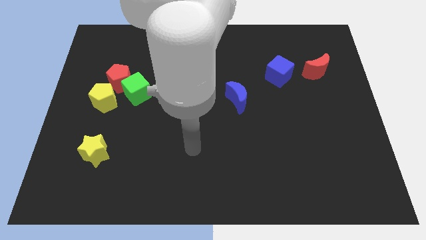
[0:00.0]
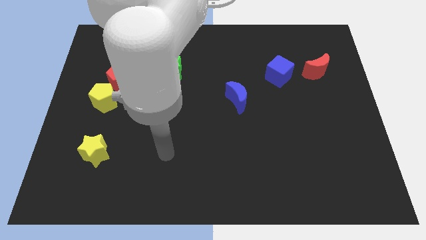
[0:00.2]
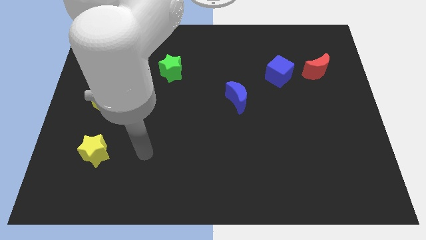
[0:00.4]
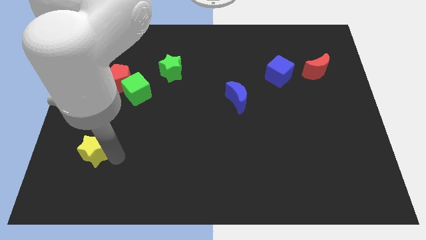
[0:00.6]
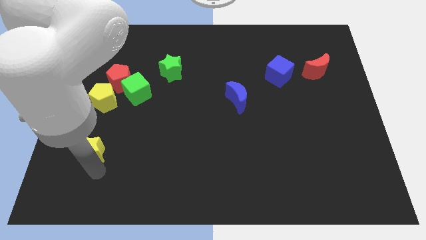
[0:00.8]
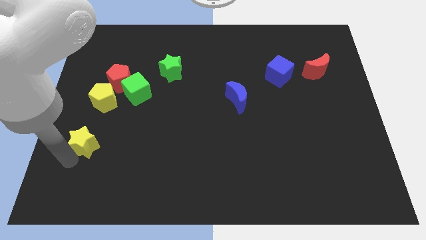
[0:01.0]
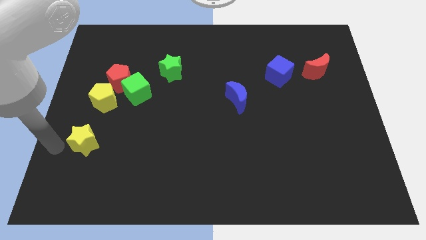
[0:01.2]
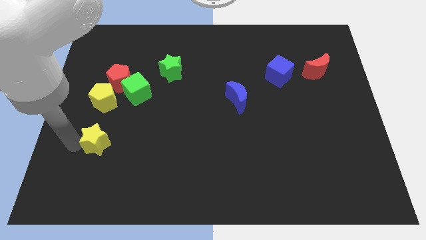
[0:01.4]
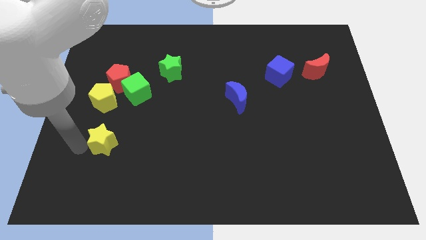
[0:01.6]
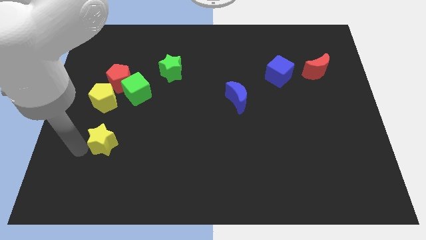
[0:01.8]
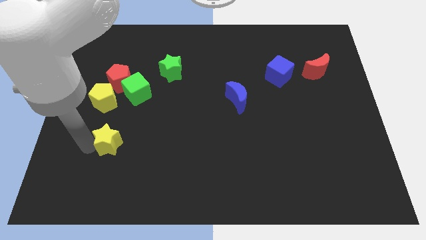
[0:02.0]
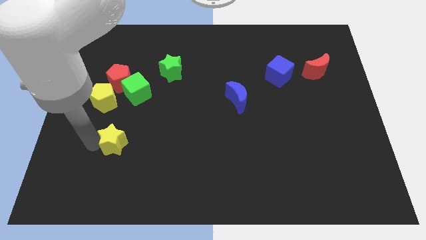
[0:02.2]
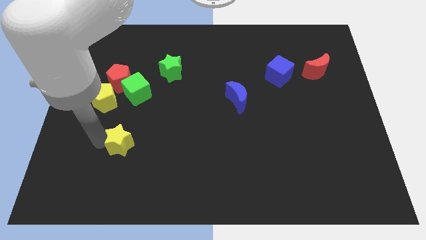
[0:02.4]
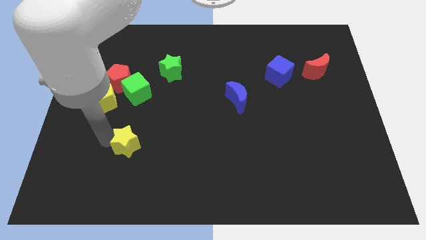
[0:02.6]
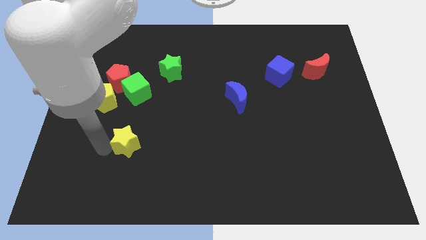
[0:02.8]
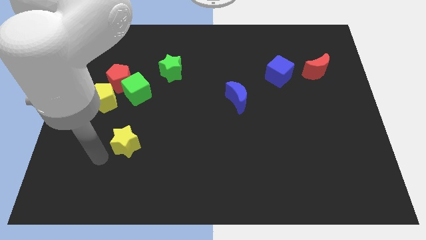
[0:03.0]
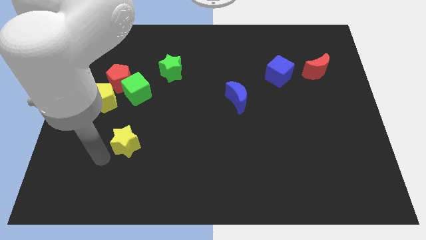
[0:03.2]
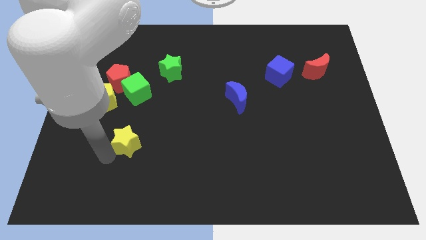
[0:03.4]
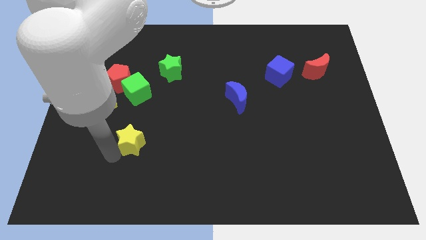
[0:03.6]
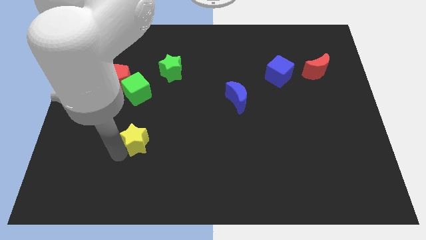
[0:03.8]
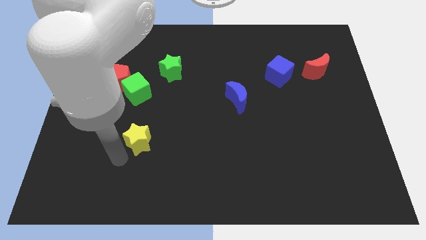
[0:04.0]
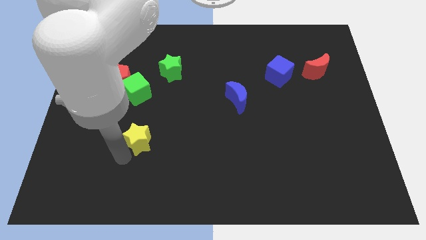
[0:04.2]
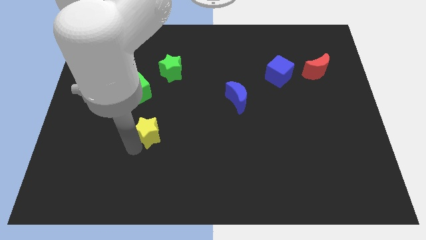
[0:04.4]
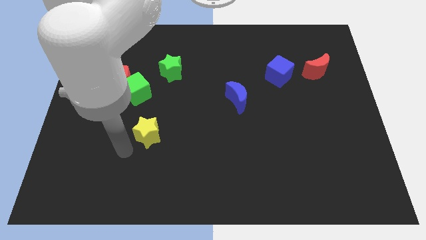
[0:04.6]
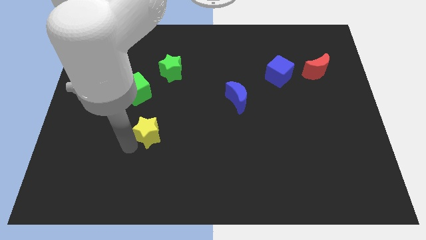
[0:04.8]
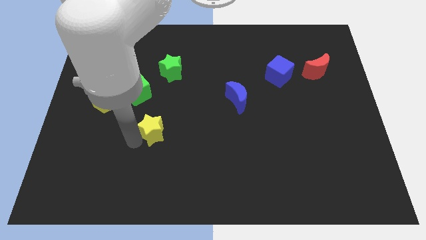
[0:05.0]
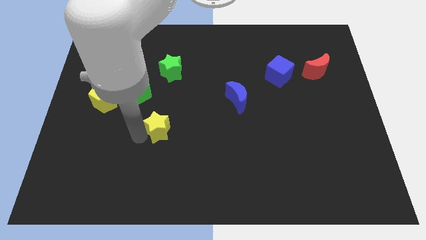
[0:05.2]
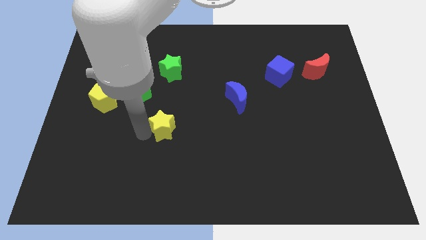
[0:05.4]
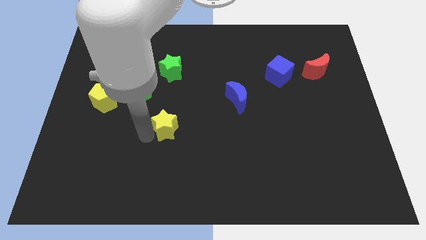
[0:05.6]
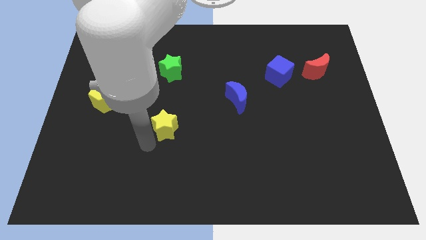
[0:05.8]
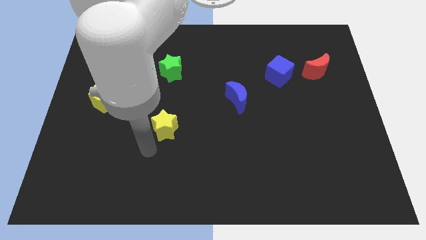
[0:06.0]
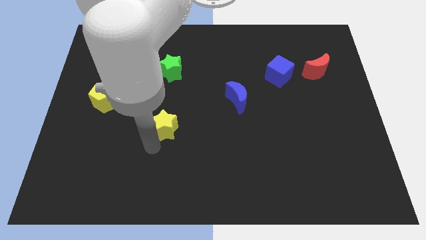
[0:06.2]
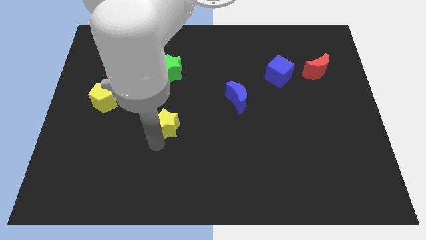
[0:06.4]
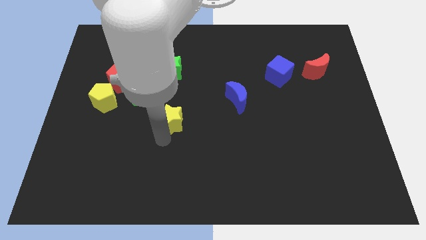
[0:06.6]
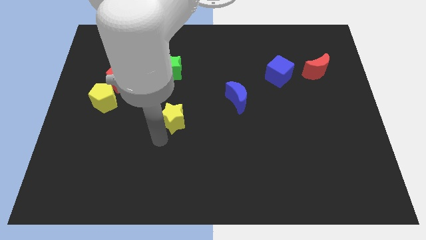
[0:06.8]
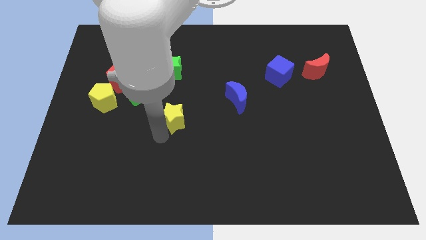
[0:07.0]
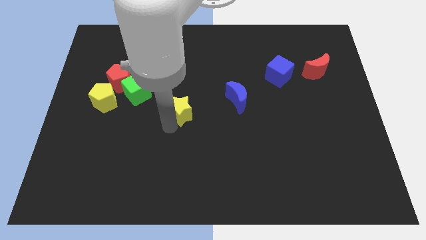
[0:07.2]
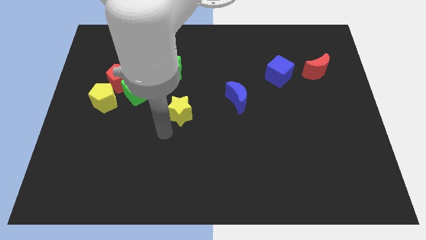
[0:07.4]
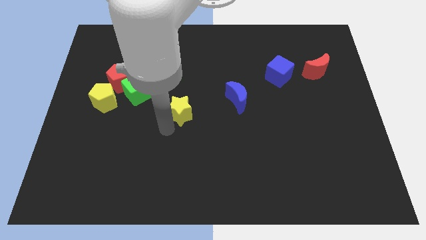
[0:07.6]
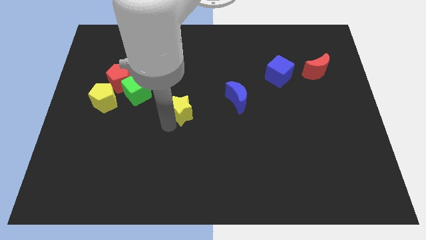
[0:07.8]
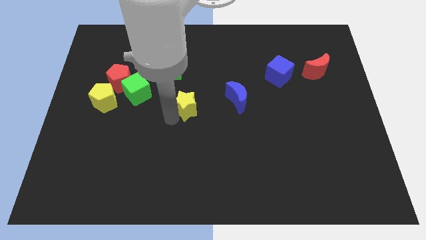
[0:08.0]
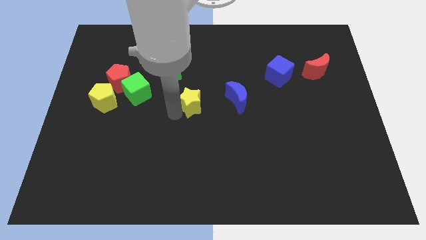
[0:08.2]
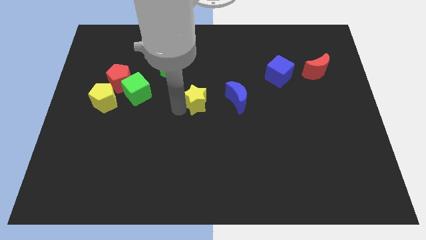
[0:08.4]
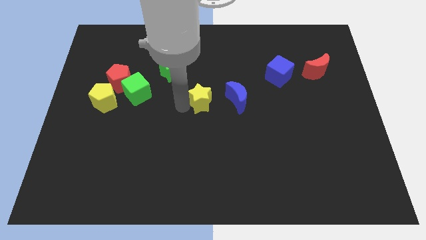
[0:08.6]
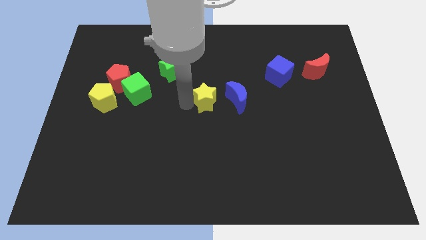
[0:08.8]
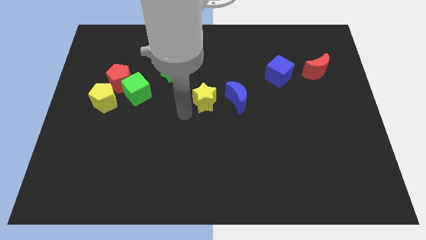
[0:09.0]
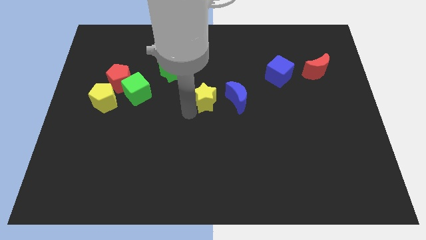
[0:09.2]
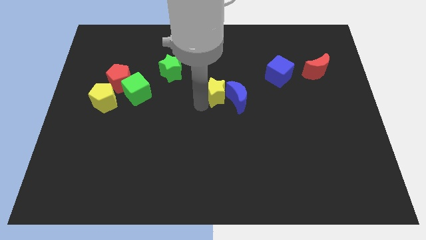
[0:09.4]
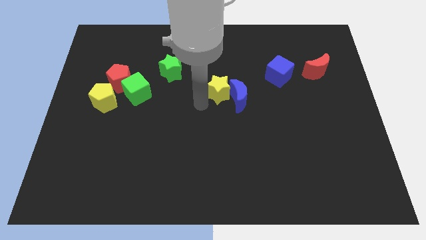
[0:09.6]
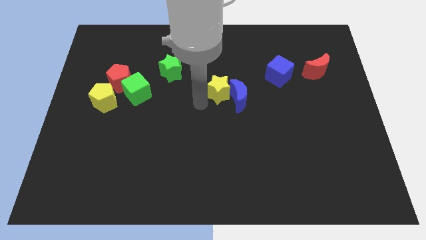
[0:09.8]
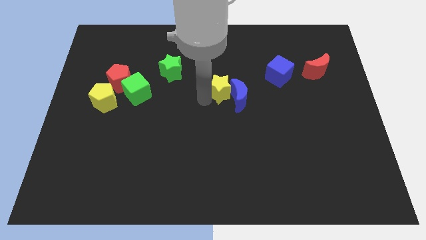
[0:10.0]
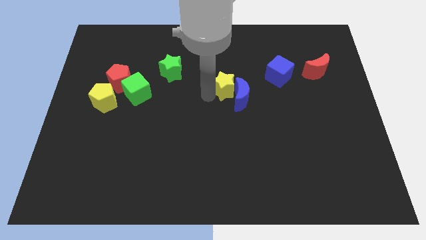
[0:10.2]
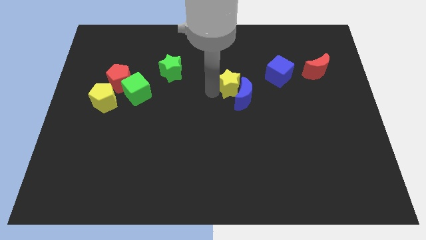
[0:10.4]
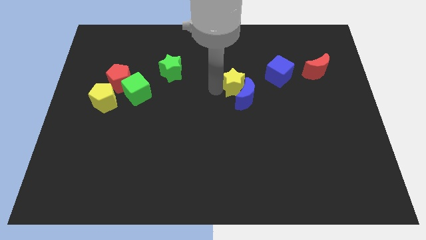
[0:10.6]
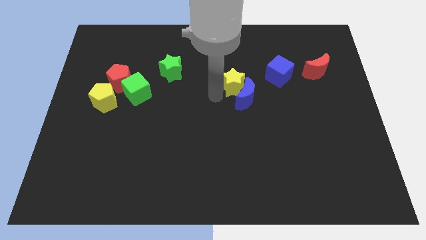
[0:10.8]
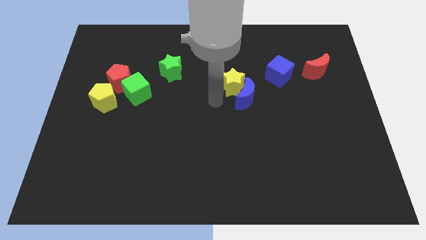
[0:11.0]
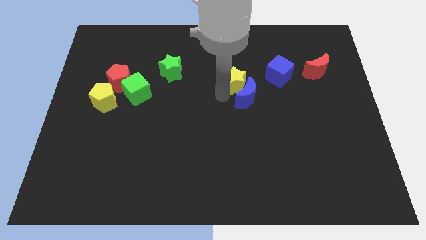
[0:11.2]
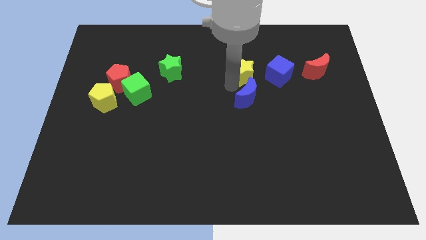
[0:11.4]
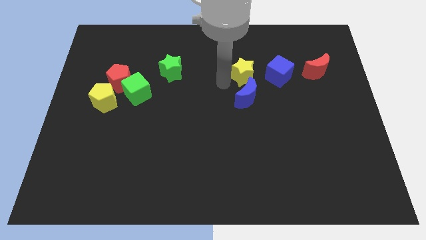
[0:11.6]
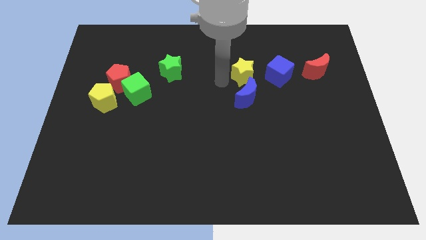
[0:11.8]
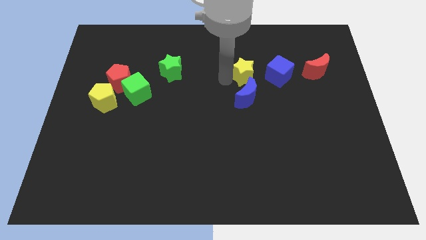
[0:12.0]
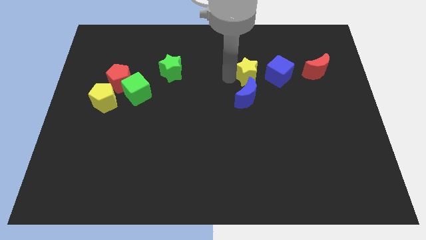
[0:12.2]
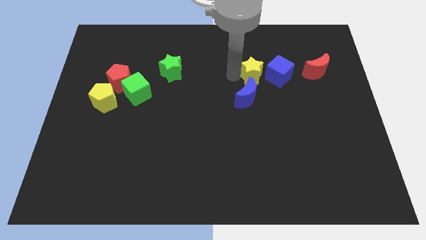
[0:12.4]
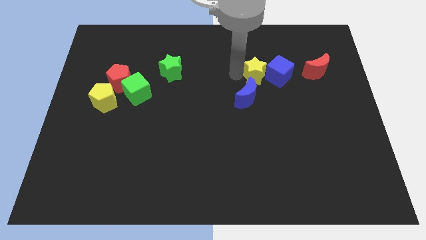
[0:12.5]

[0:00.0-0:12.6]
push the yellow star to the left side of the red moon

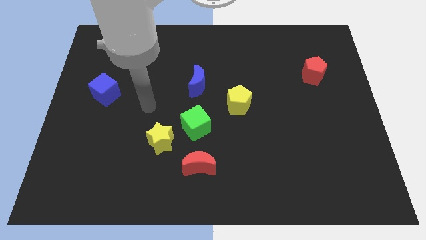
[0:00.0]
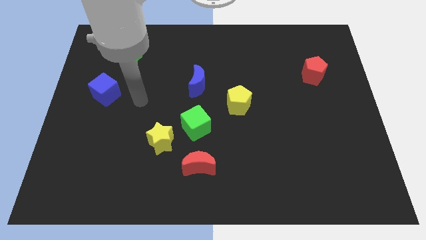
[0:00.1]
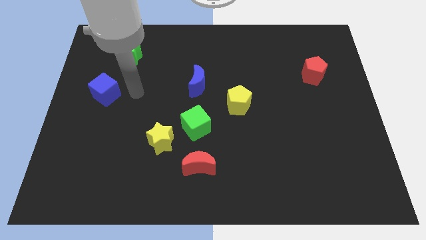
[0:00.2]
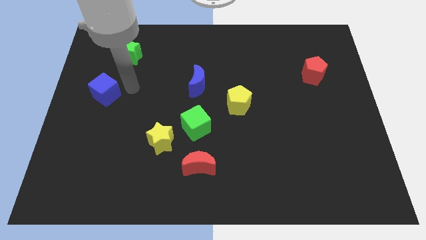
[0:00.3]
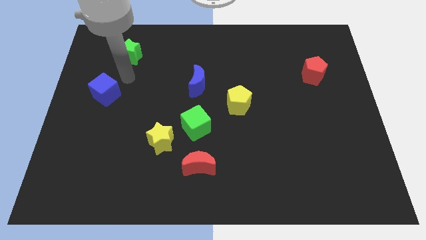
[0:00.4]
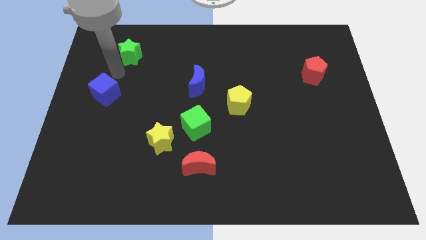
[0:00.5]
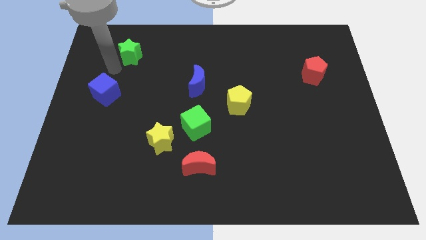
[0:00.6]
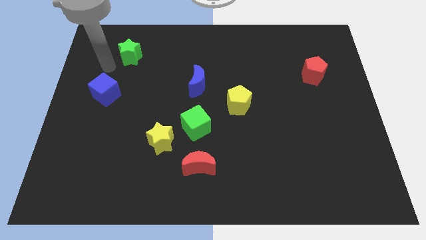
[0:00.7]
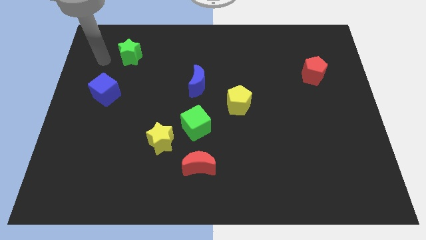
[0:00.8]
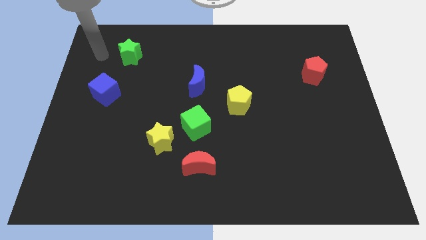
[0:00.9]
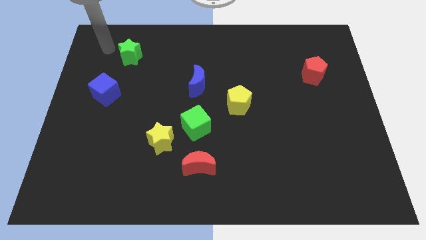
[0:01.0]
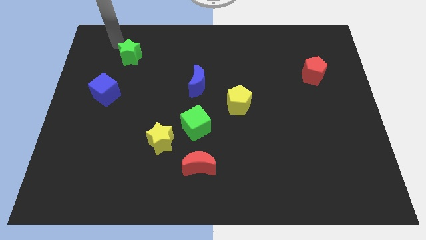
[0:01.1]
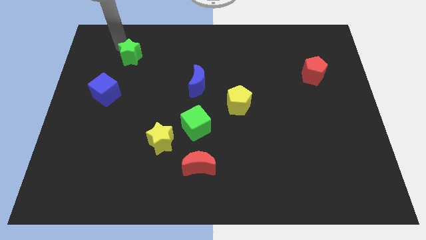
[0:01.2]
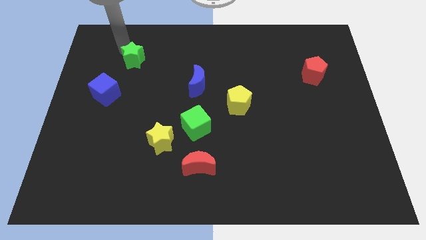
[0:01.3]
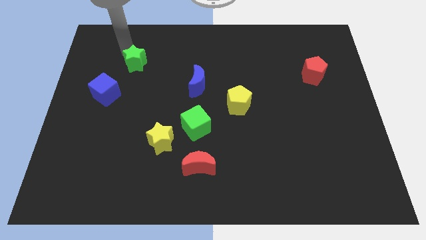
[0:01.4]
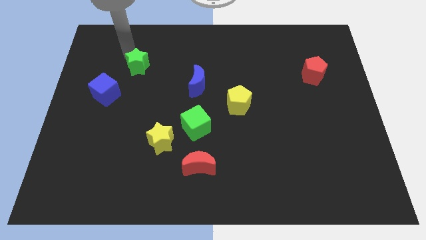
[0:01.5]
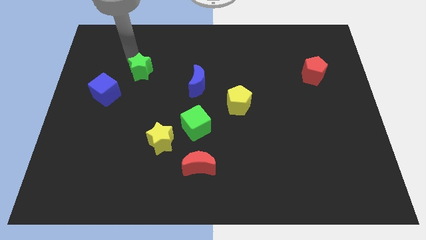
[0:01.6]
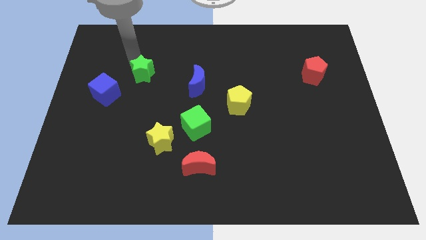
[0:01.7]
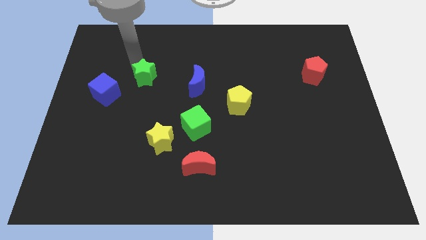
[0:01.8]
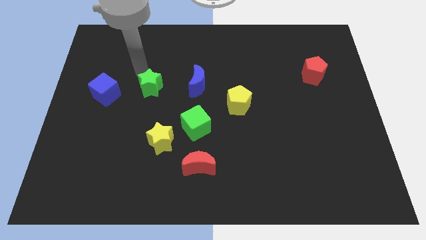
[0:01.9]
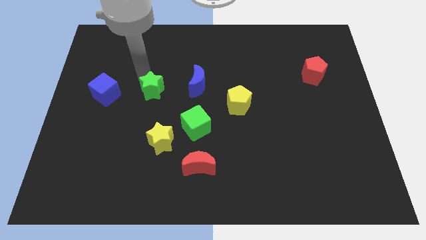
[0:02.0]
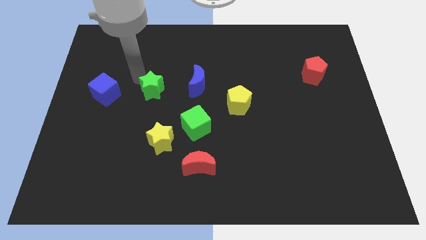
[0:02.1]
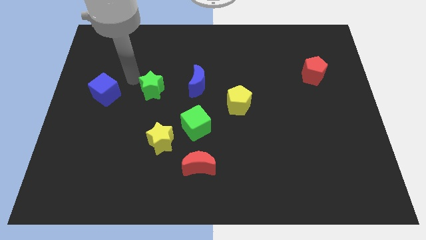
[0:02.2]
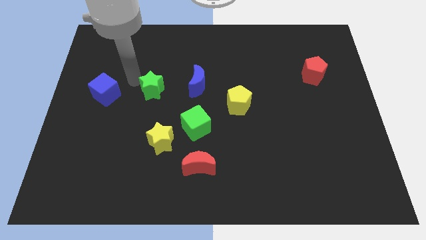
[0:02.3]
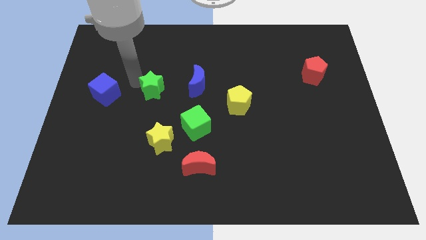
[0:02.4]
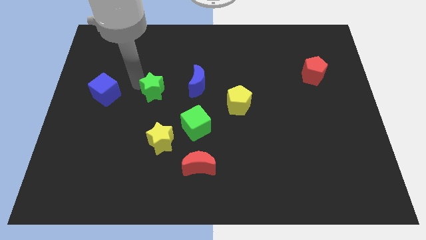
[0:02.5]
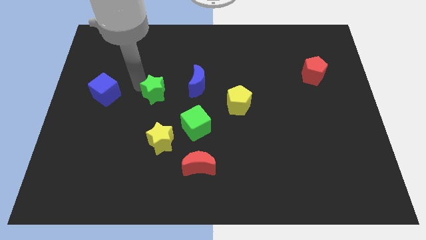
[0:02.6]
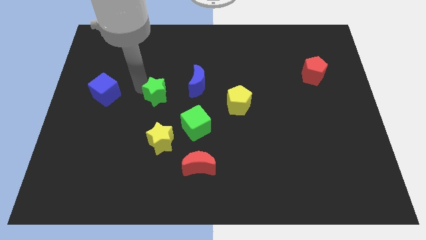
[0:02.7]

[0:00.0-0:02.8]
push the green star to the bottom left side of the blue moon
